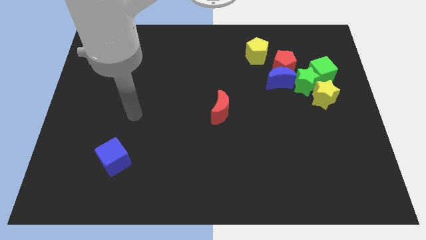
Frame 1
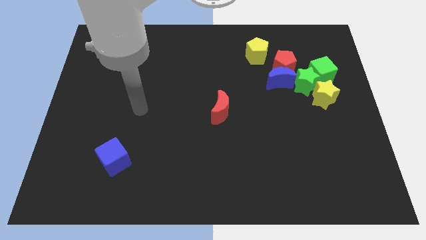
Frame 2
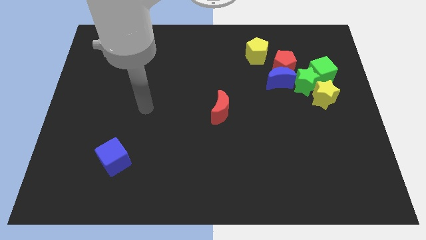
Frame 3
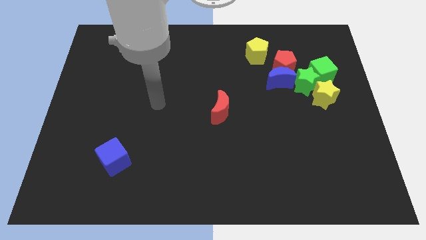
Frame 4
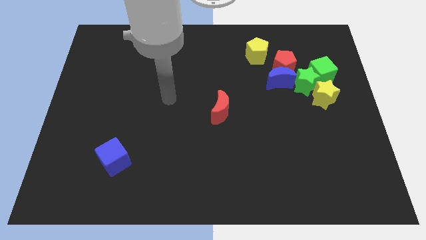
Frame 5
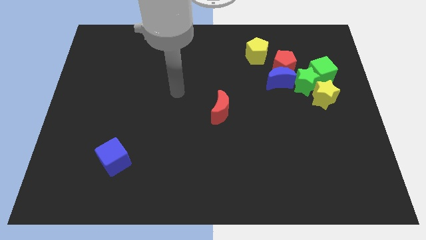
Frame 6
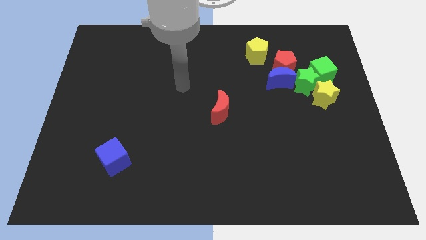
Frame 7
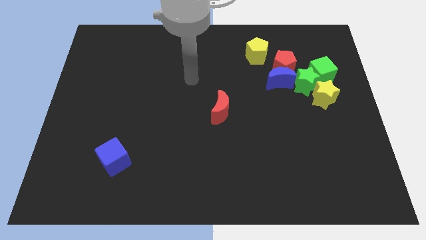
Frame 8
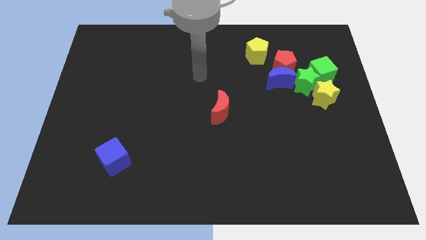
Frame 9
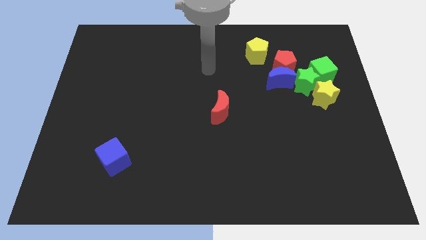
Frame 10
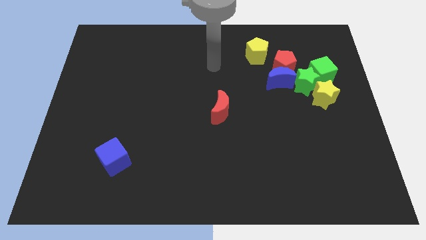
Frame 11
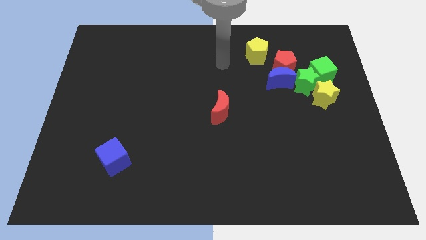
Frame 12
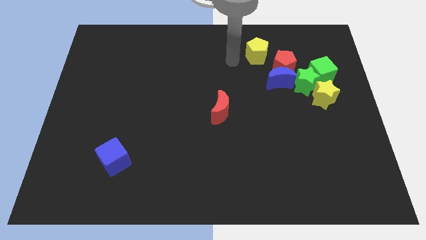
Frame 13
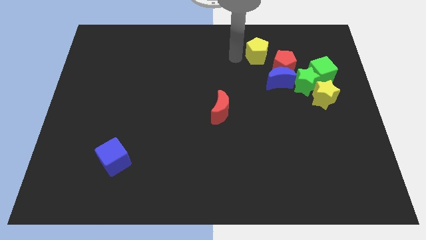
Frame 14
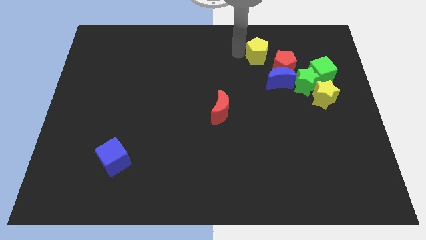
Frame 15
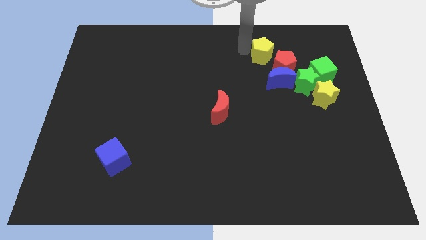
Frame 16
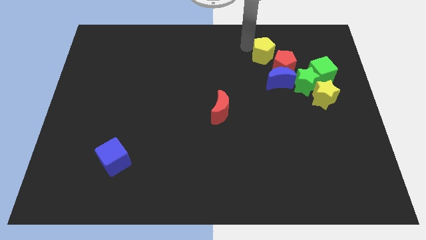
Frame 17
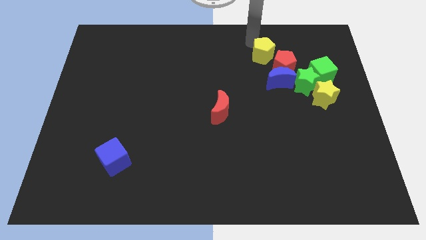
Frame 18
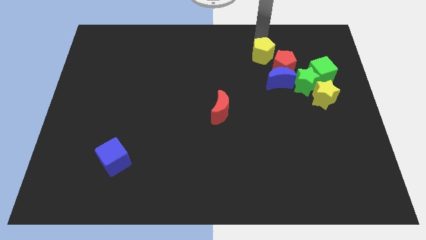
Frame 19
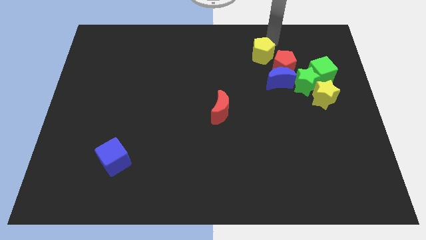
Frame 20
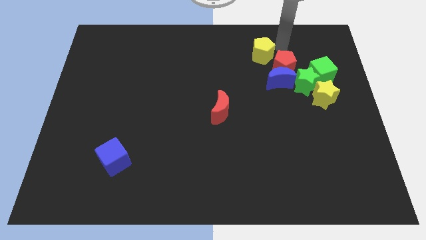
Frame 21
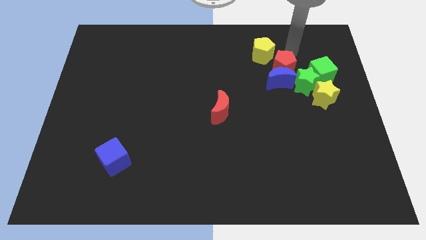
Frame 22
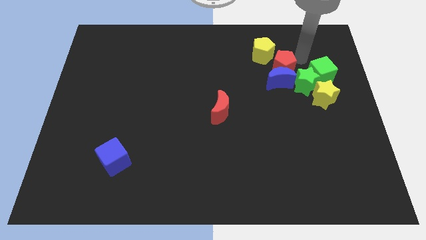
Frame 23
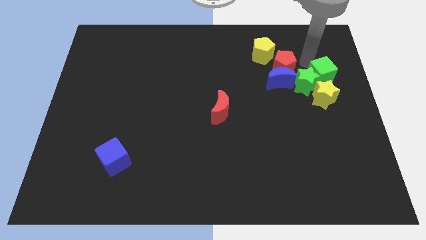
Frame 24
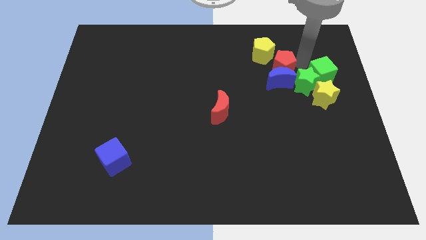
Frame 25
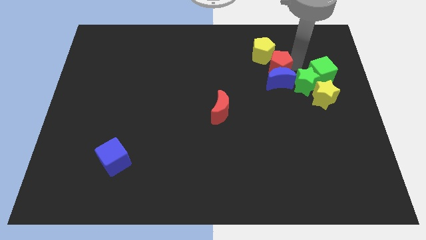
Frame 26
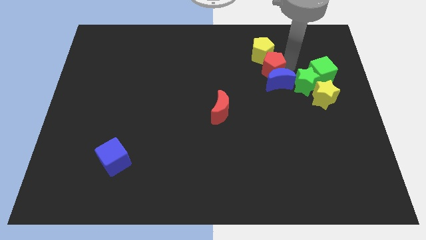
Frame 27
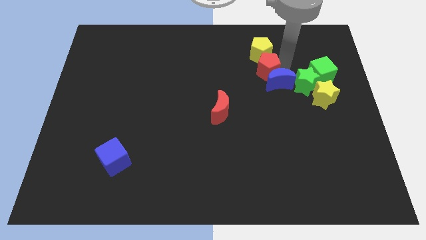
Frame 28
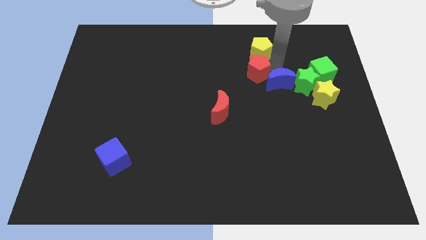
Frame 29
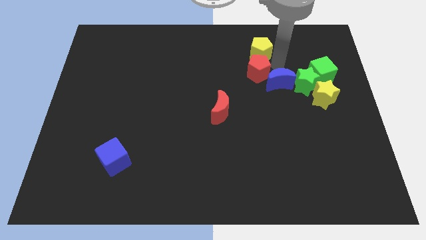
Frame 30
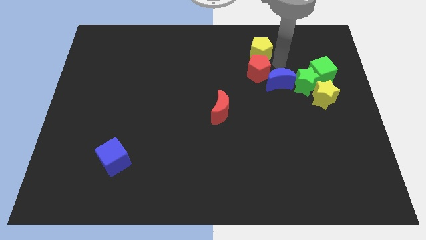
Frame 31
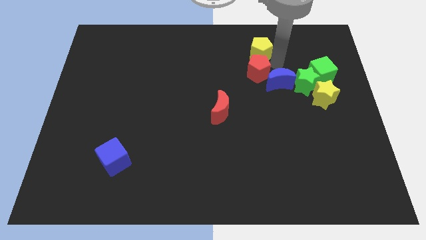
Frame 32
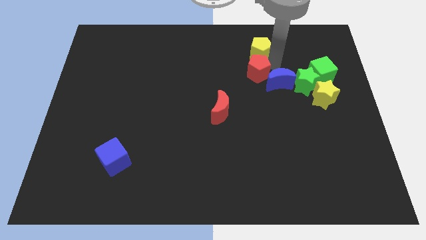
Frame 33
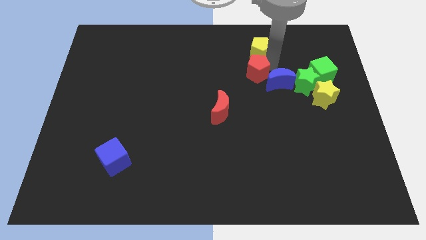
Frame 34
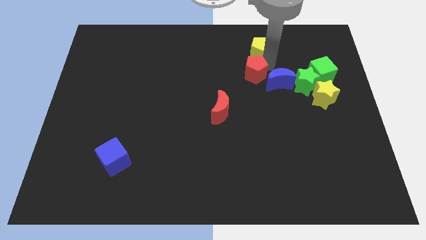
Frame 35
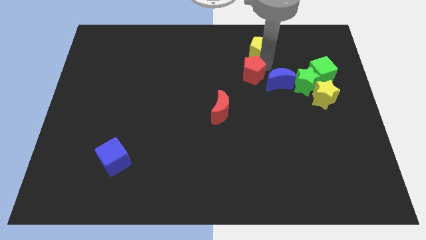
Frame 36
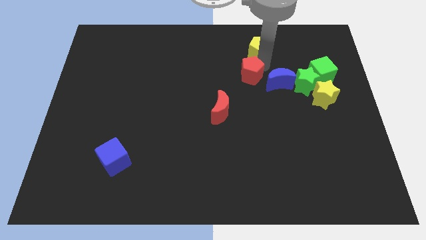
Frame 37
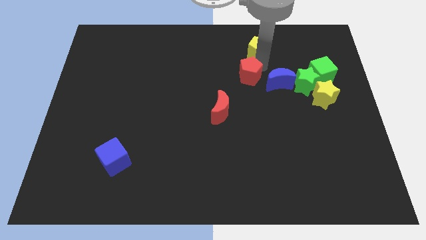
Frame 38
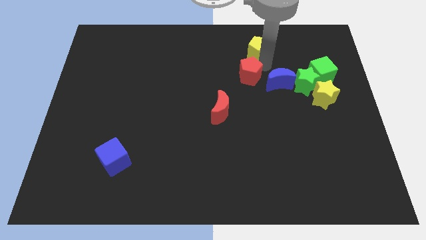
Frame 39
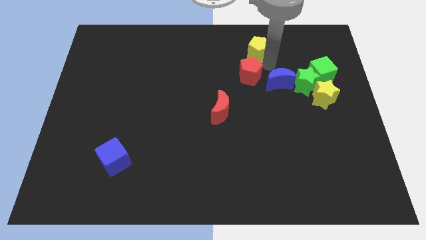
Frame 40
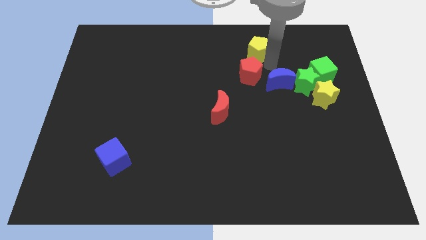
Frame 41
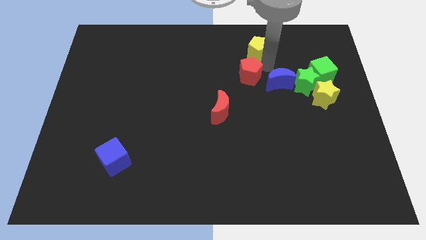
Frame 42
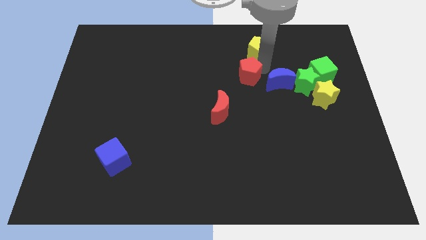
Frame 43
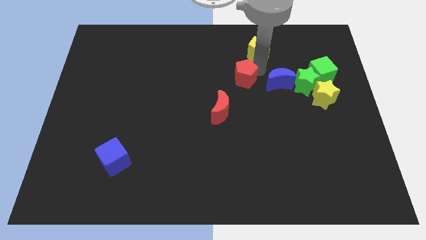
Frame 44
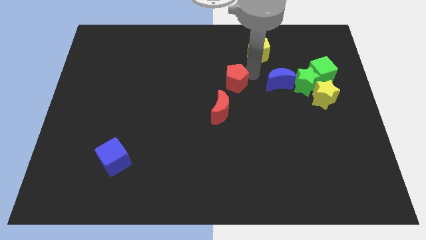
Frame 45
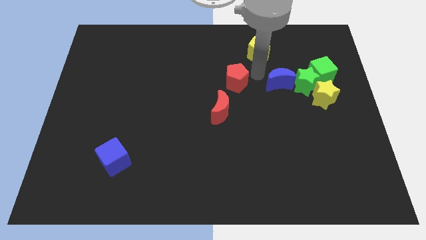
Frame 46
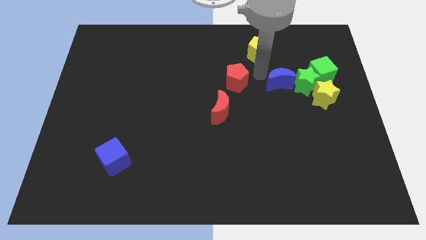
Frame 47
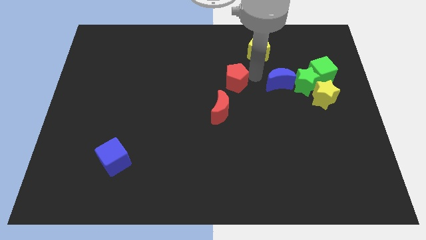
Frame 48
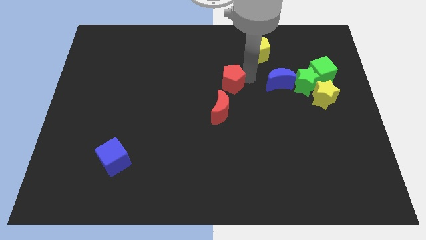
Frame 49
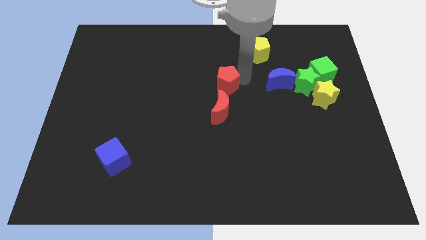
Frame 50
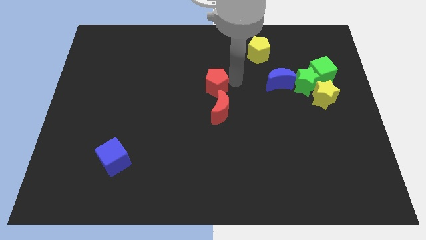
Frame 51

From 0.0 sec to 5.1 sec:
put the red pentagon diagonally up and to the left of the red moon

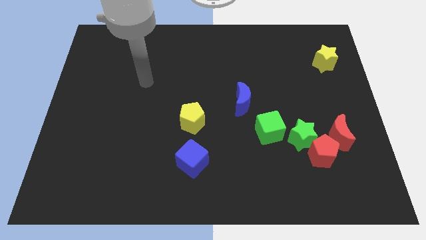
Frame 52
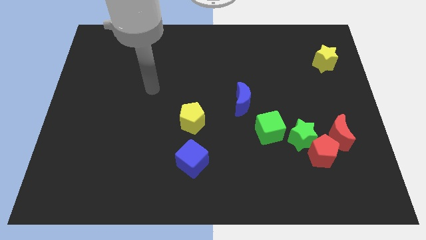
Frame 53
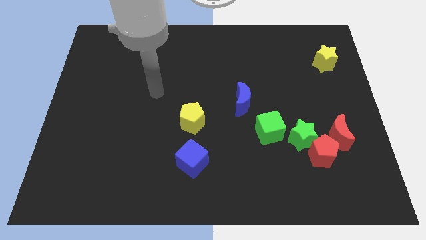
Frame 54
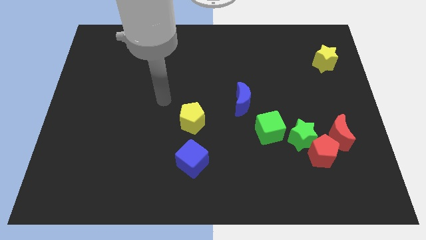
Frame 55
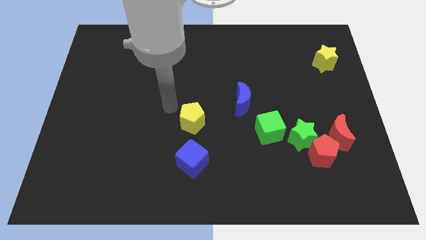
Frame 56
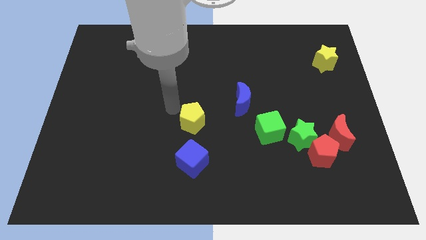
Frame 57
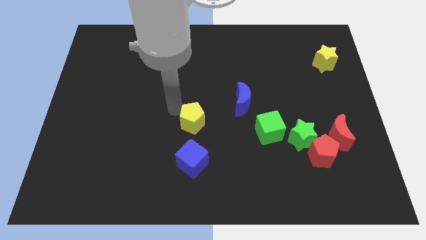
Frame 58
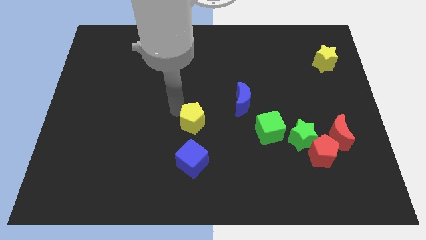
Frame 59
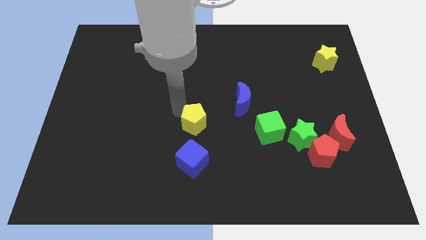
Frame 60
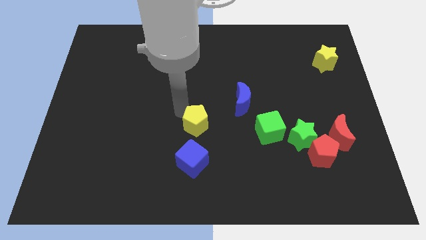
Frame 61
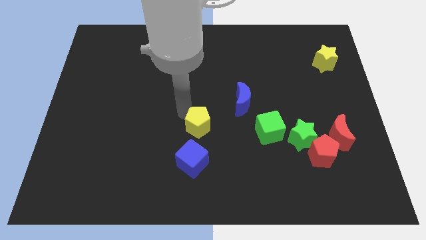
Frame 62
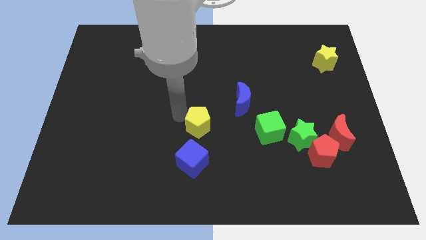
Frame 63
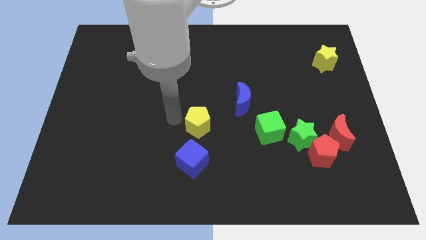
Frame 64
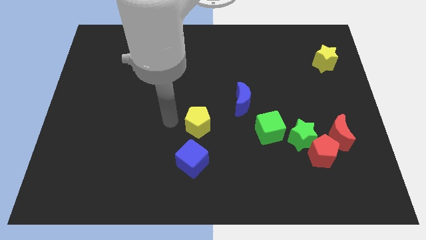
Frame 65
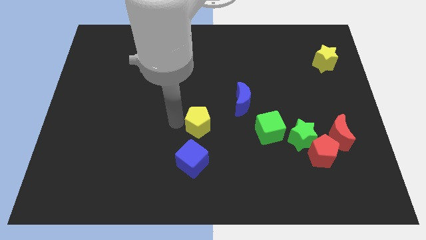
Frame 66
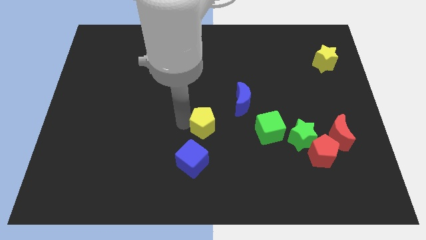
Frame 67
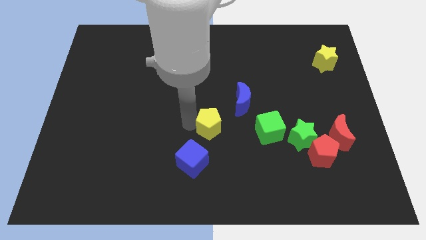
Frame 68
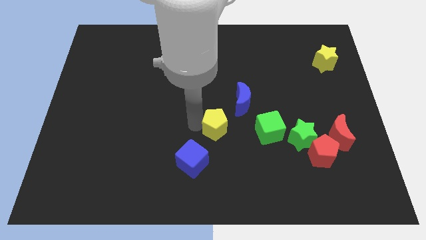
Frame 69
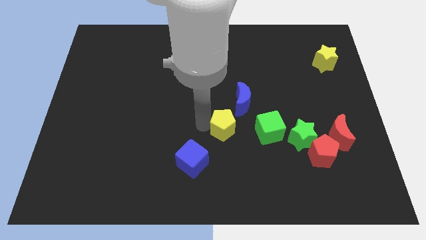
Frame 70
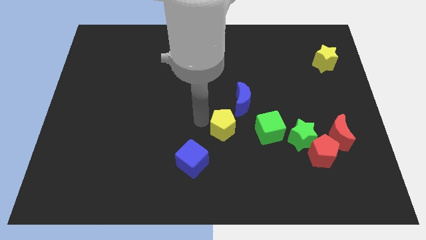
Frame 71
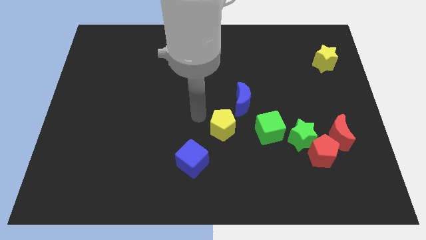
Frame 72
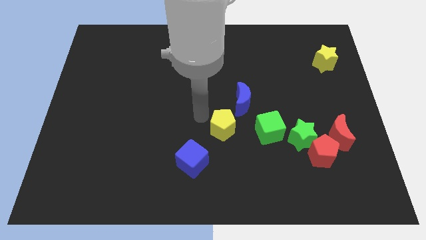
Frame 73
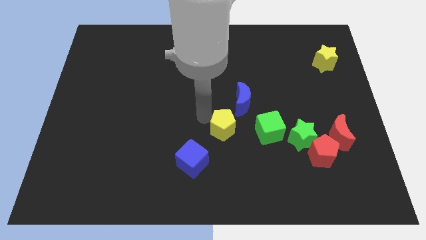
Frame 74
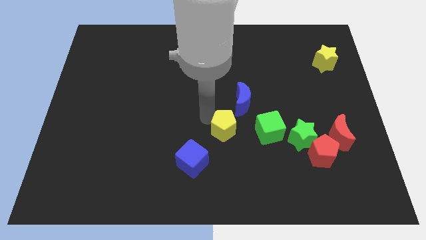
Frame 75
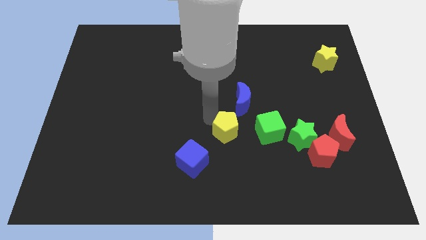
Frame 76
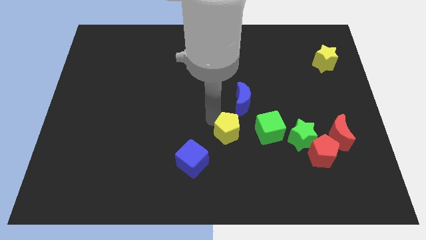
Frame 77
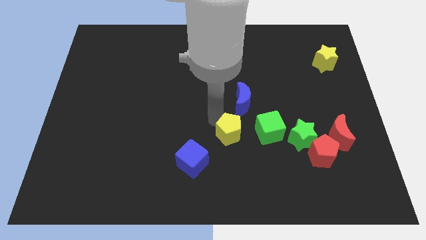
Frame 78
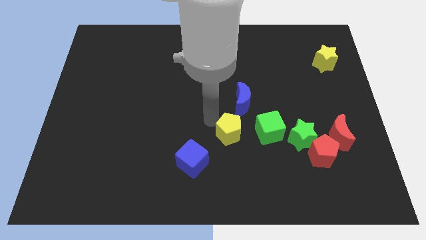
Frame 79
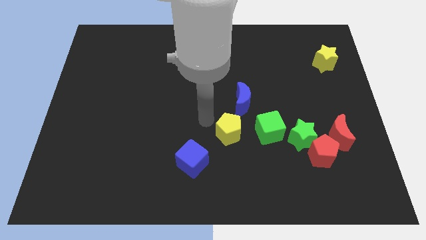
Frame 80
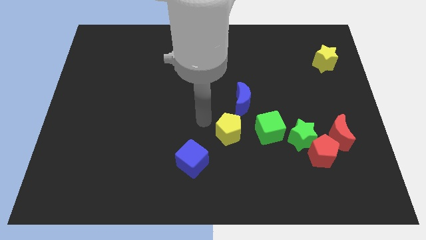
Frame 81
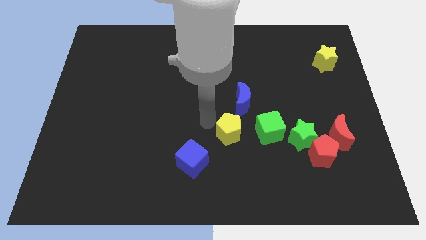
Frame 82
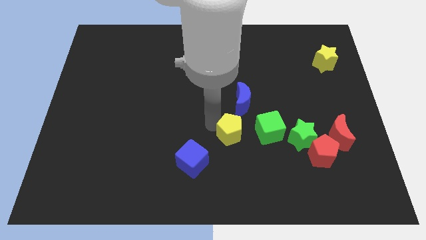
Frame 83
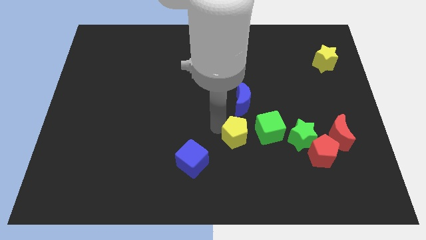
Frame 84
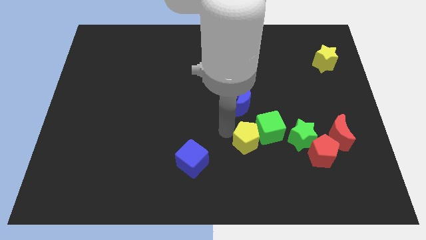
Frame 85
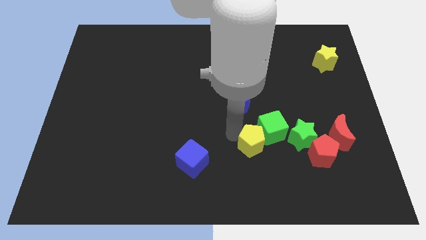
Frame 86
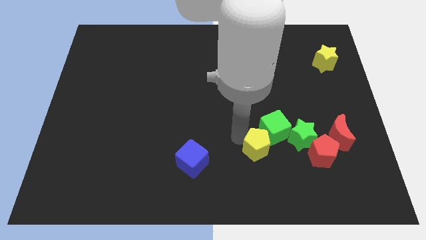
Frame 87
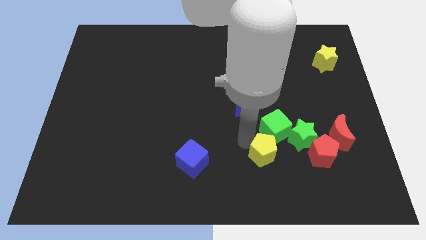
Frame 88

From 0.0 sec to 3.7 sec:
slide the yellow pentagon to the bottom left of the green star
